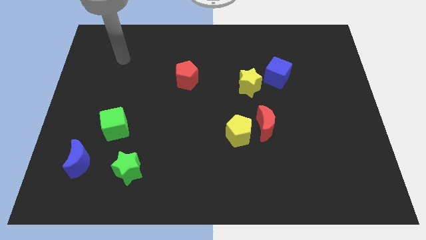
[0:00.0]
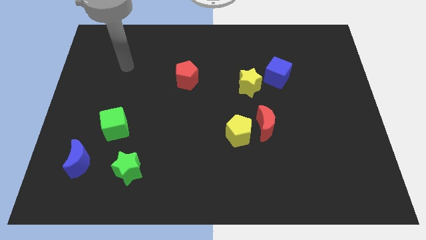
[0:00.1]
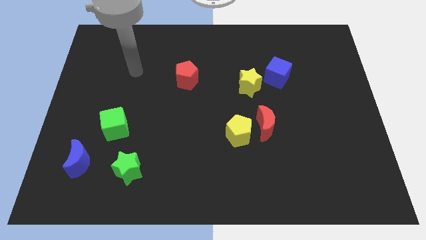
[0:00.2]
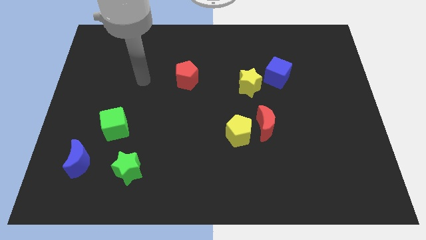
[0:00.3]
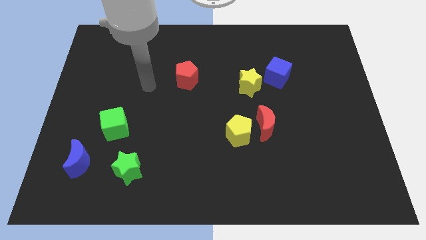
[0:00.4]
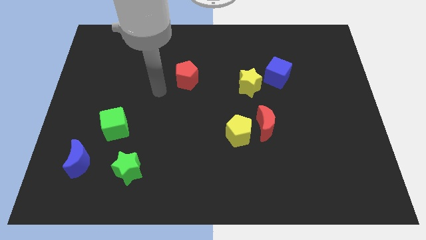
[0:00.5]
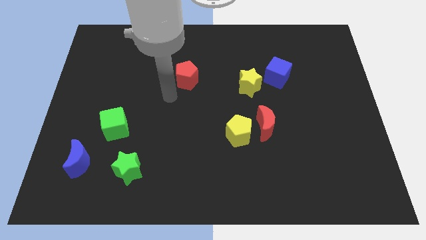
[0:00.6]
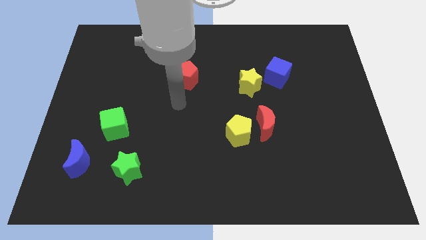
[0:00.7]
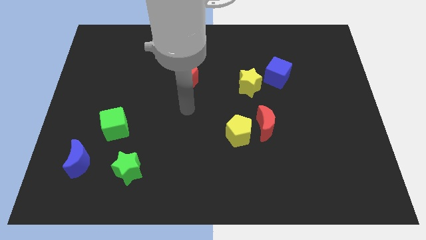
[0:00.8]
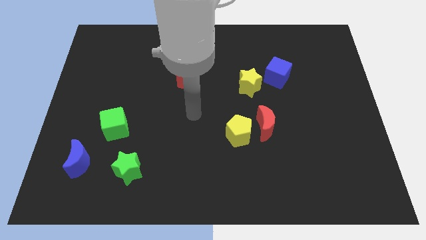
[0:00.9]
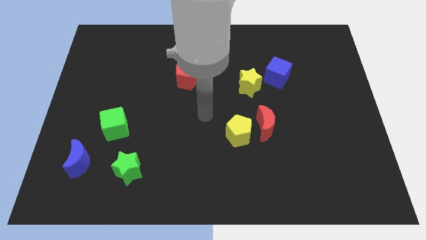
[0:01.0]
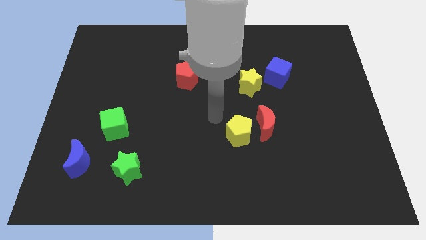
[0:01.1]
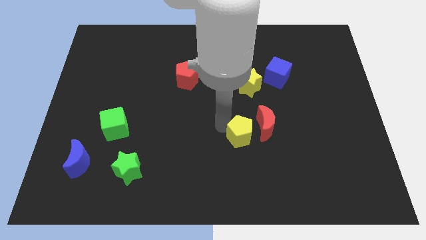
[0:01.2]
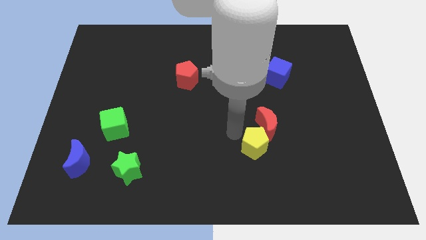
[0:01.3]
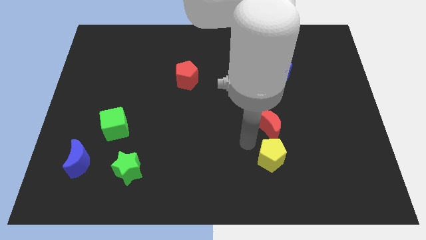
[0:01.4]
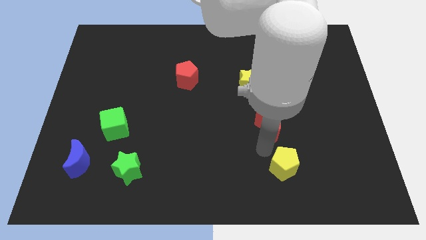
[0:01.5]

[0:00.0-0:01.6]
separate the red moon from the yellow pentagon

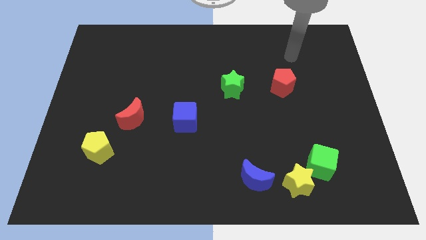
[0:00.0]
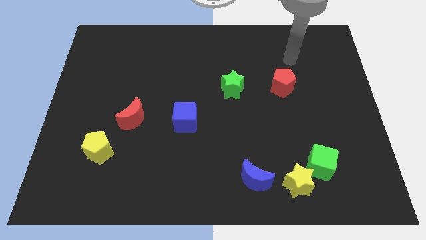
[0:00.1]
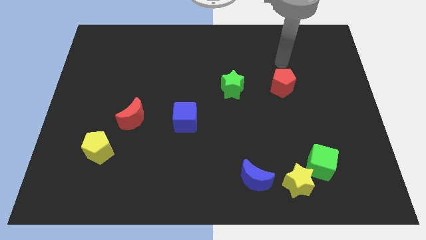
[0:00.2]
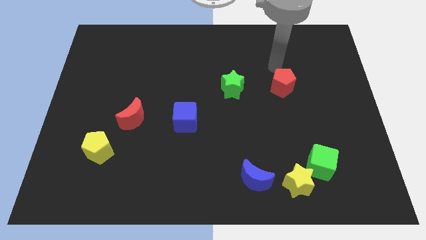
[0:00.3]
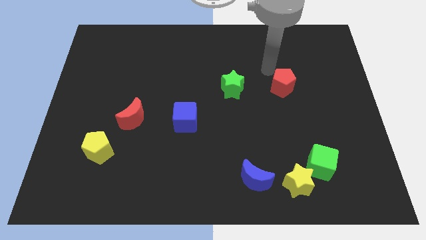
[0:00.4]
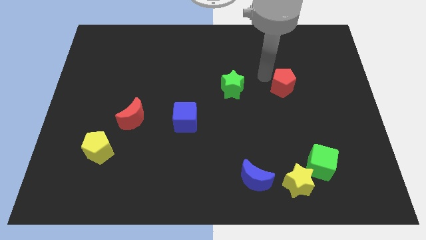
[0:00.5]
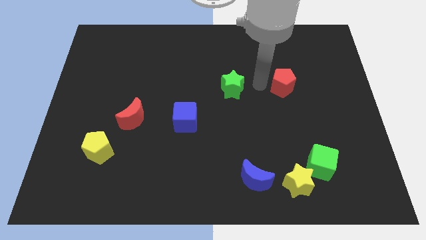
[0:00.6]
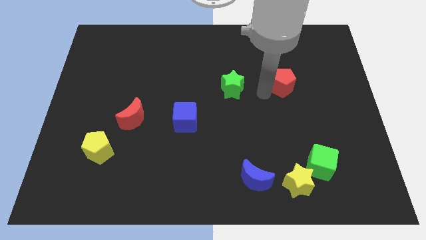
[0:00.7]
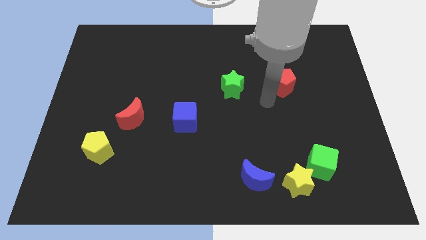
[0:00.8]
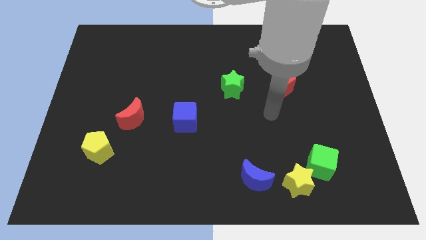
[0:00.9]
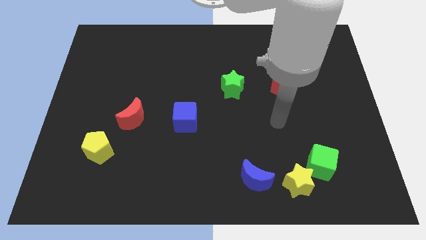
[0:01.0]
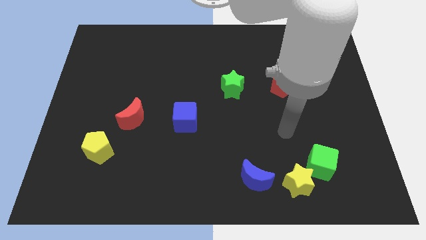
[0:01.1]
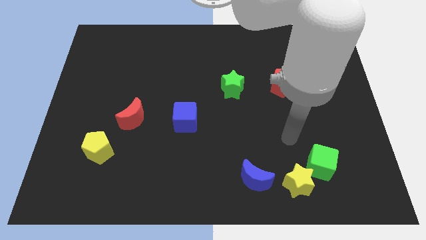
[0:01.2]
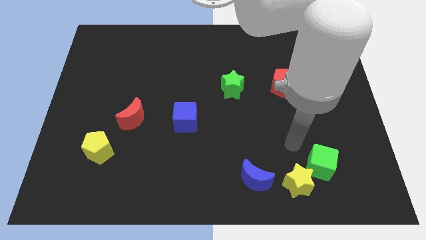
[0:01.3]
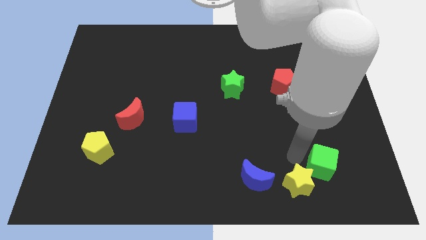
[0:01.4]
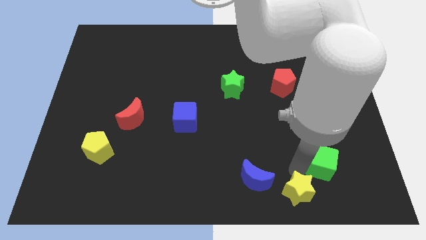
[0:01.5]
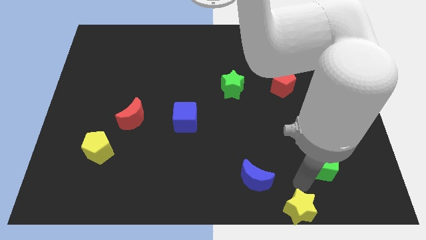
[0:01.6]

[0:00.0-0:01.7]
move the green cube away from the yellow star

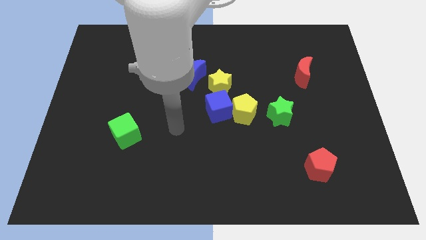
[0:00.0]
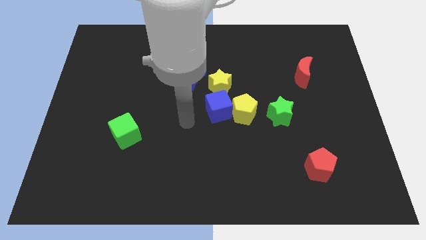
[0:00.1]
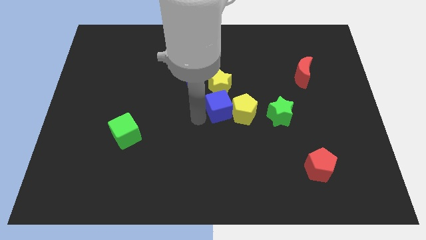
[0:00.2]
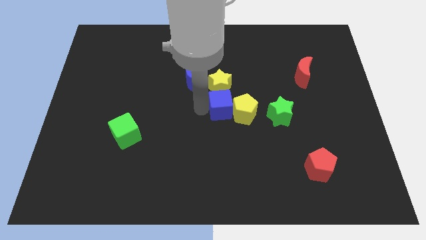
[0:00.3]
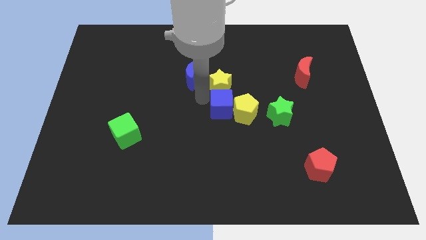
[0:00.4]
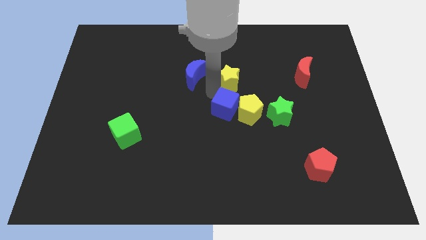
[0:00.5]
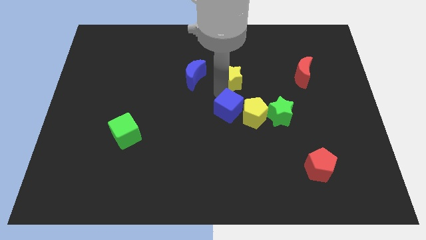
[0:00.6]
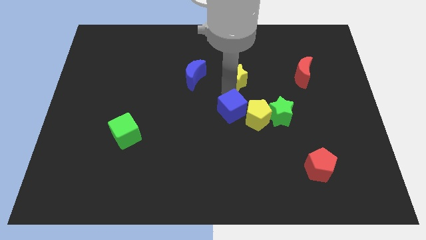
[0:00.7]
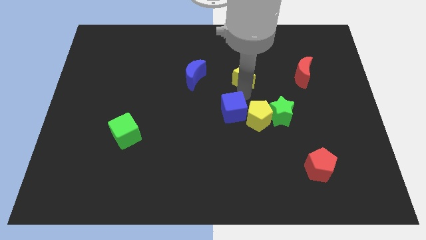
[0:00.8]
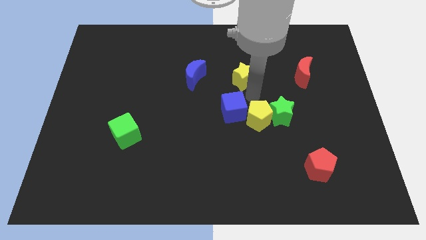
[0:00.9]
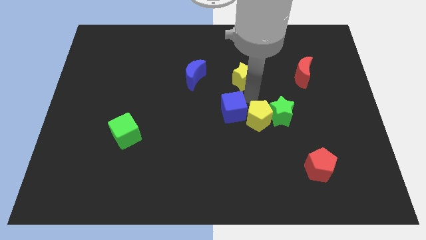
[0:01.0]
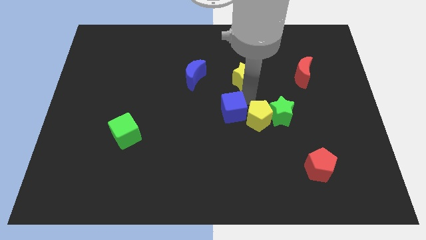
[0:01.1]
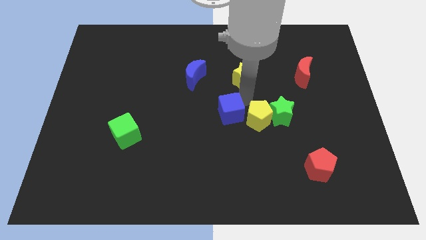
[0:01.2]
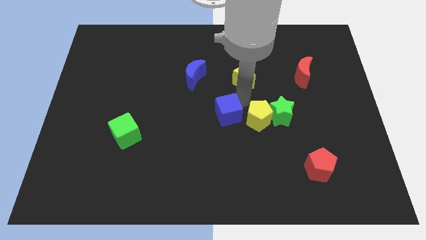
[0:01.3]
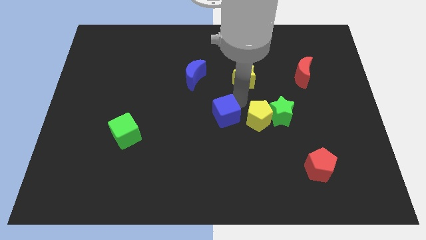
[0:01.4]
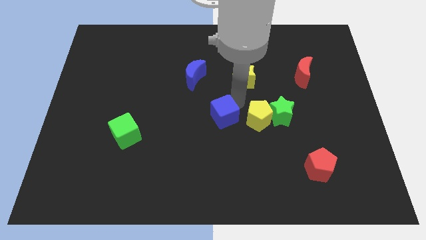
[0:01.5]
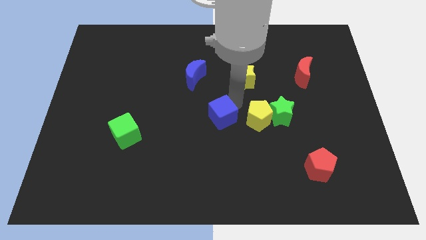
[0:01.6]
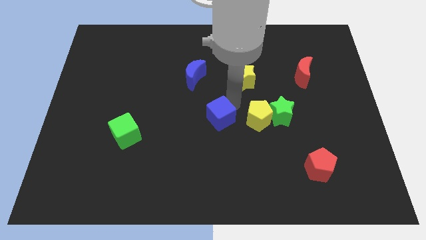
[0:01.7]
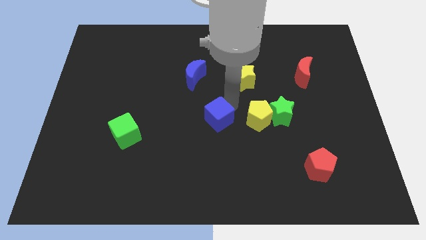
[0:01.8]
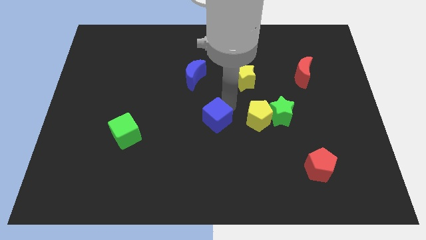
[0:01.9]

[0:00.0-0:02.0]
separate the blue cube from the yellow pentagon and yellow star

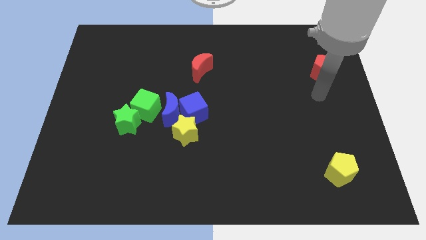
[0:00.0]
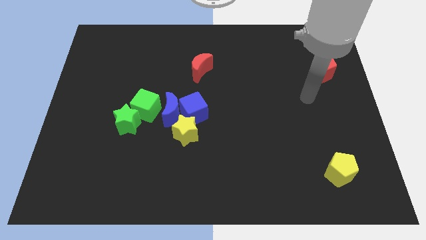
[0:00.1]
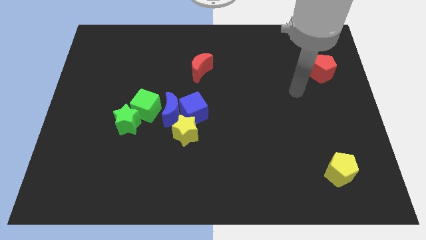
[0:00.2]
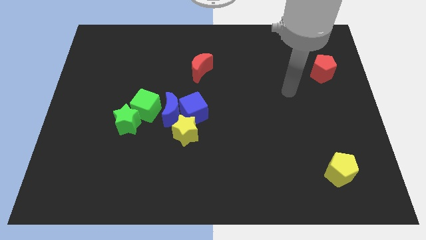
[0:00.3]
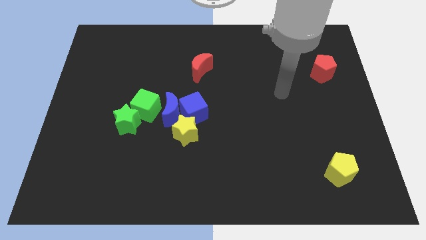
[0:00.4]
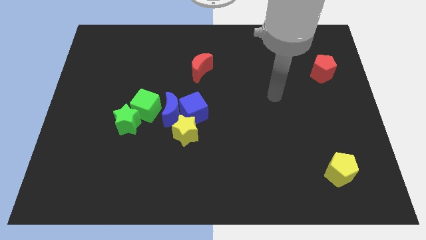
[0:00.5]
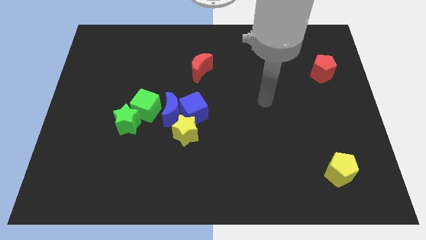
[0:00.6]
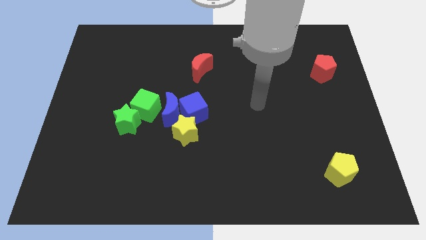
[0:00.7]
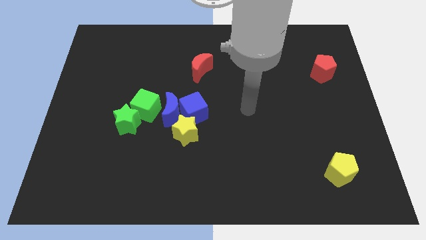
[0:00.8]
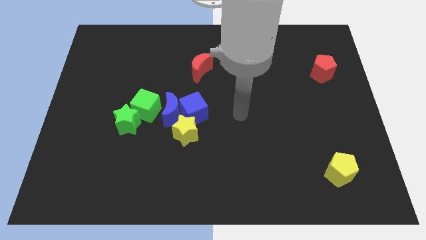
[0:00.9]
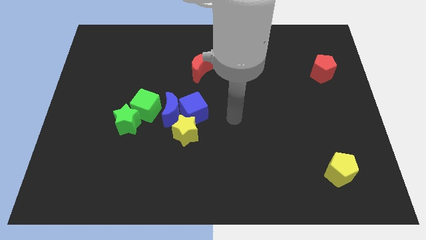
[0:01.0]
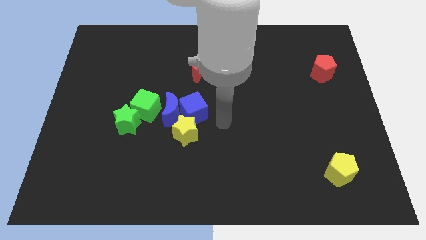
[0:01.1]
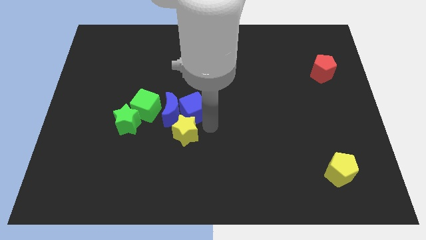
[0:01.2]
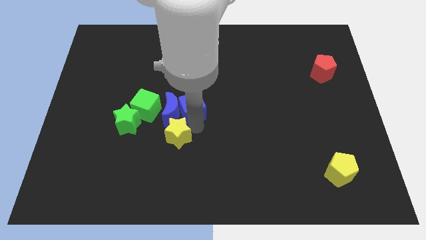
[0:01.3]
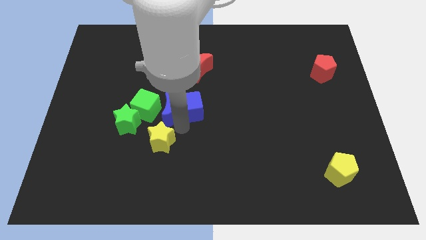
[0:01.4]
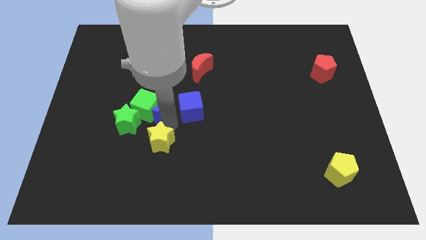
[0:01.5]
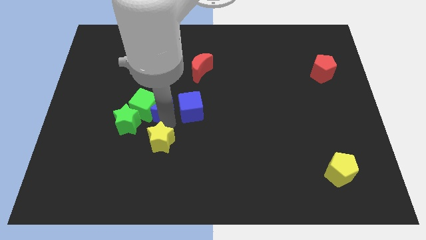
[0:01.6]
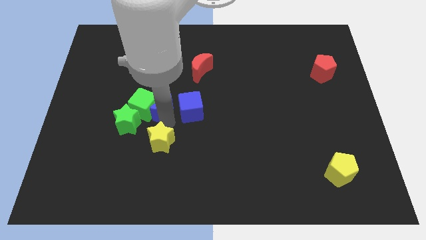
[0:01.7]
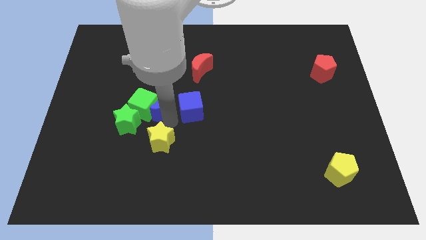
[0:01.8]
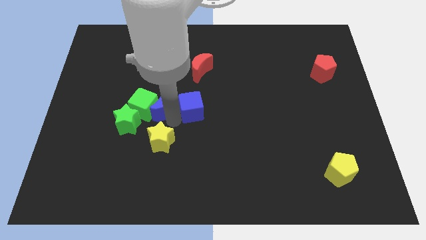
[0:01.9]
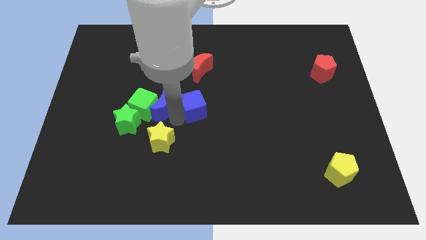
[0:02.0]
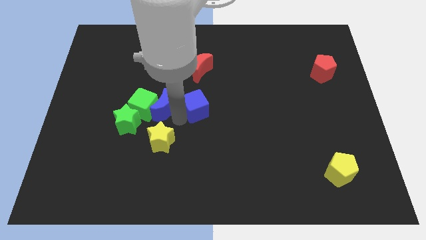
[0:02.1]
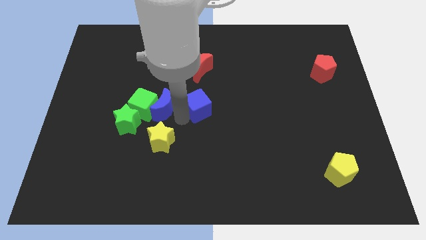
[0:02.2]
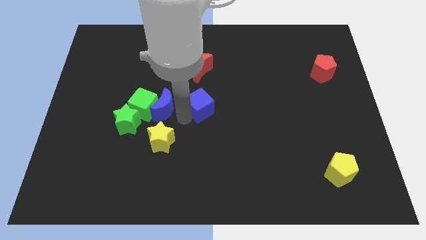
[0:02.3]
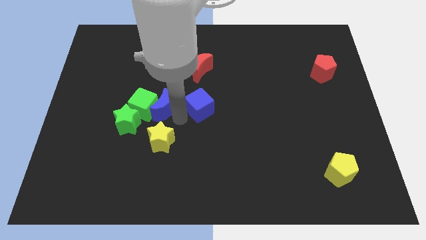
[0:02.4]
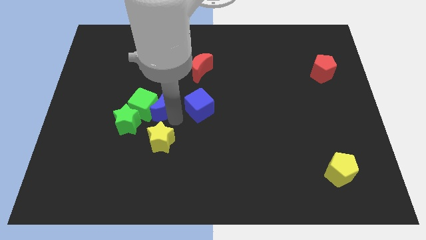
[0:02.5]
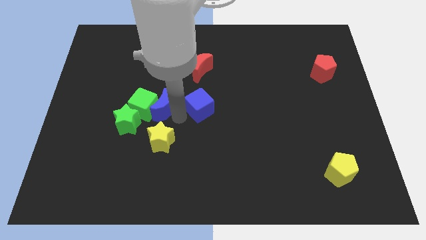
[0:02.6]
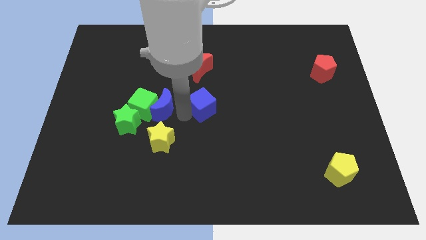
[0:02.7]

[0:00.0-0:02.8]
pull the blue cube apart from the blue moon and yellow star

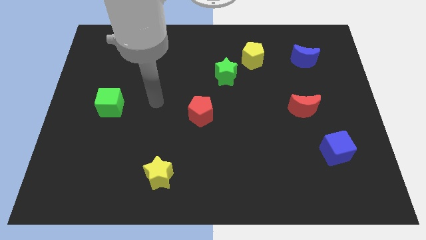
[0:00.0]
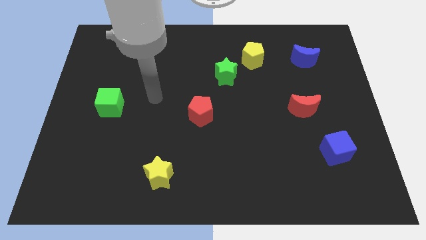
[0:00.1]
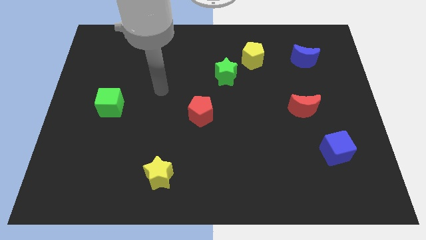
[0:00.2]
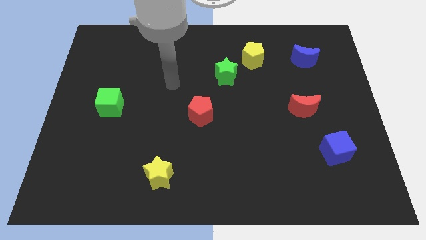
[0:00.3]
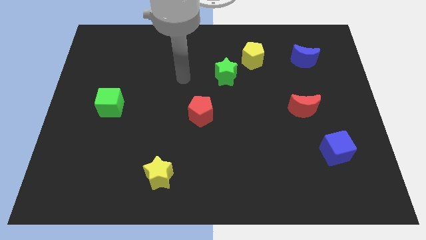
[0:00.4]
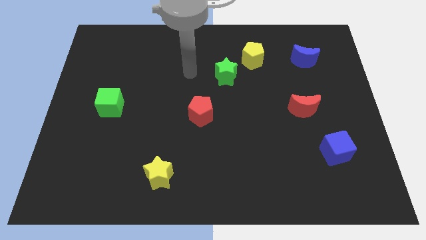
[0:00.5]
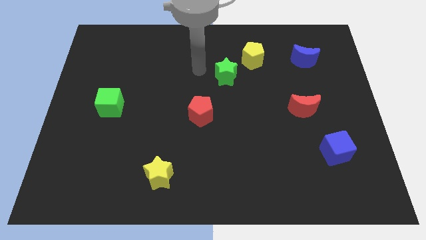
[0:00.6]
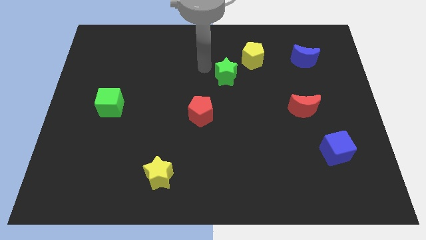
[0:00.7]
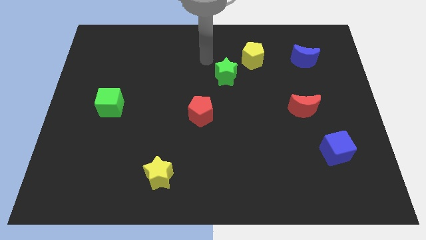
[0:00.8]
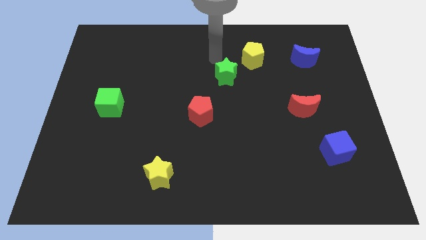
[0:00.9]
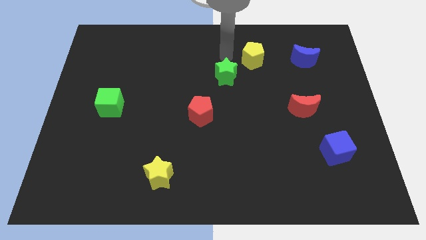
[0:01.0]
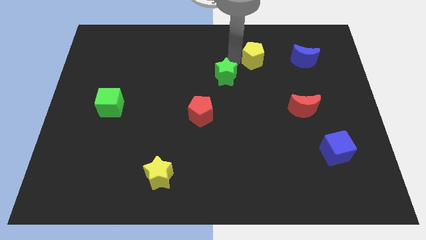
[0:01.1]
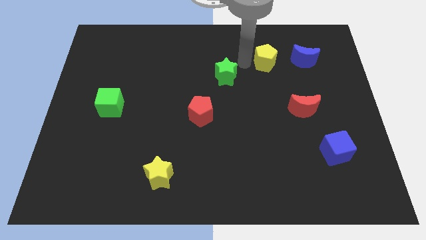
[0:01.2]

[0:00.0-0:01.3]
separate the green star from the yellow pentagon
